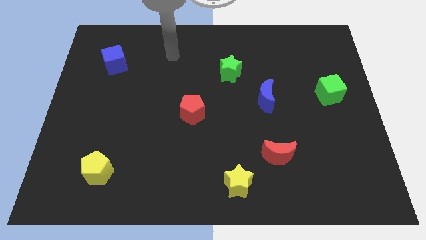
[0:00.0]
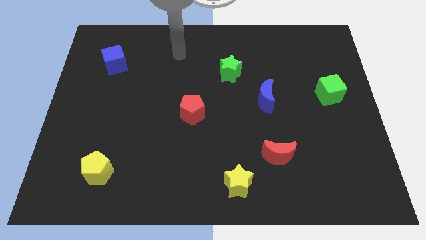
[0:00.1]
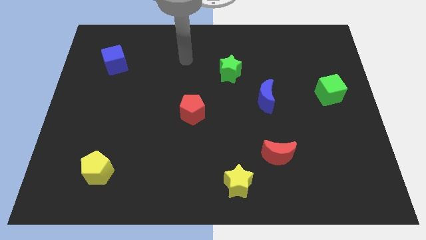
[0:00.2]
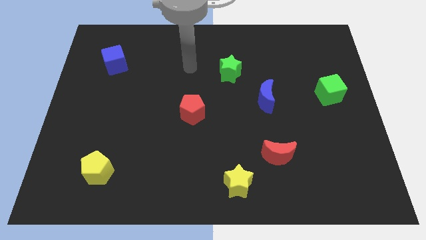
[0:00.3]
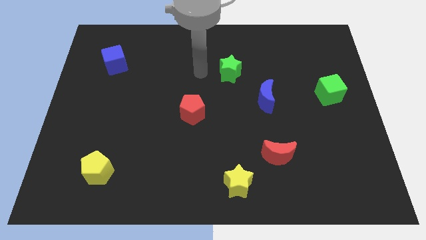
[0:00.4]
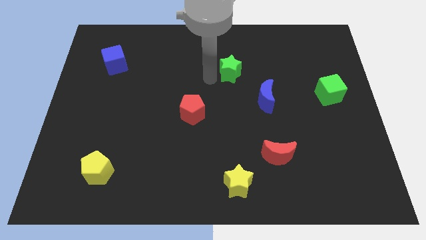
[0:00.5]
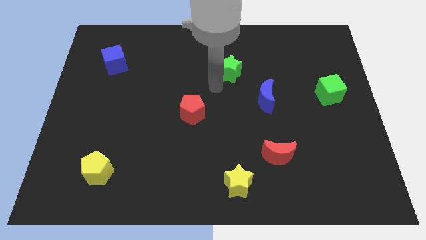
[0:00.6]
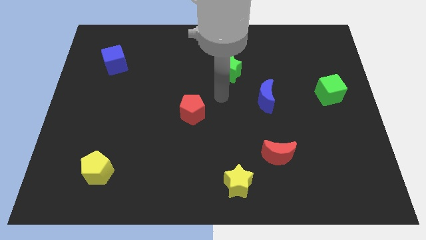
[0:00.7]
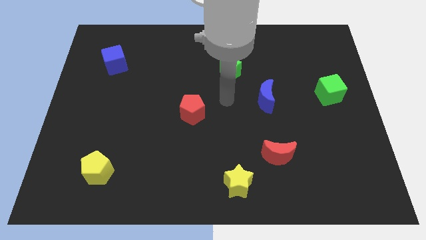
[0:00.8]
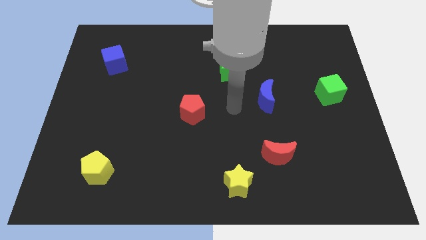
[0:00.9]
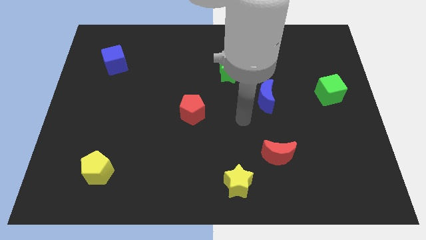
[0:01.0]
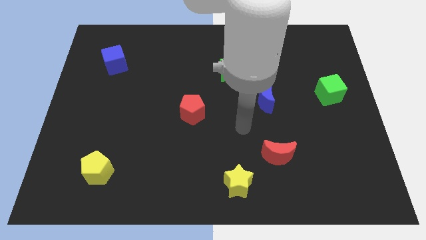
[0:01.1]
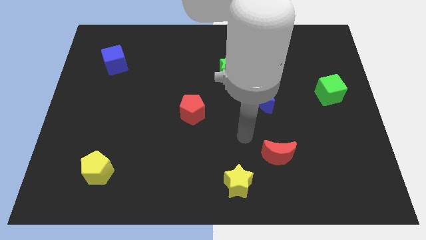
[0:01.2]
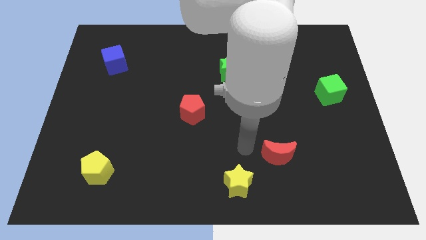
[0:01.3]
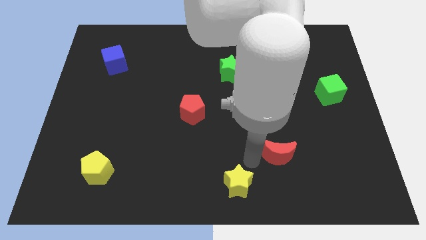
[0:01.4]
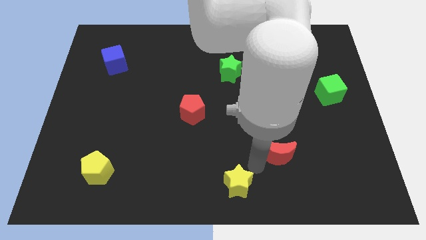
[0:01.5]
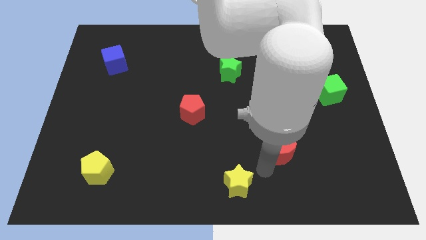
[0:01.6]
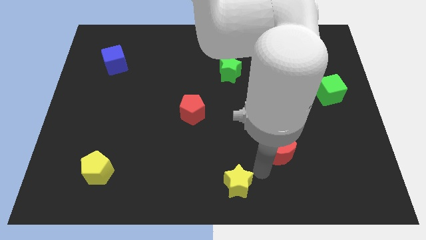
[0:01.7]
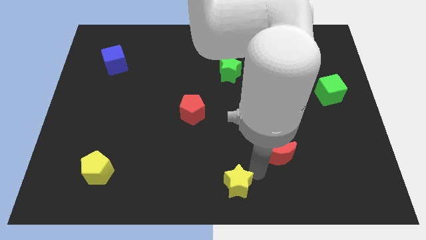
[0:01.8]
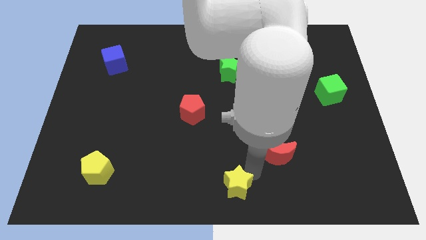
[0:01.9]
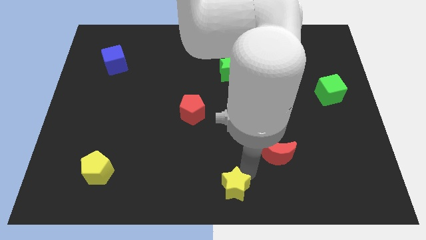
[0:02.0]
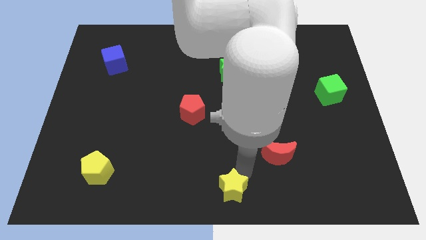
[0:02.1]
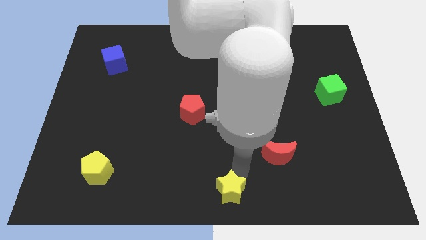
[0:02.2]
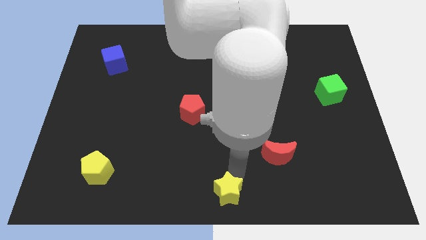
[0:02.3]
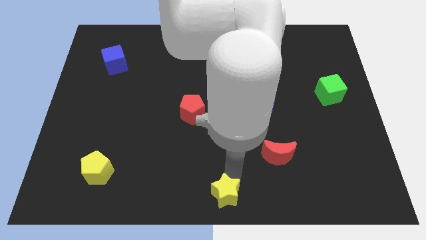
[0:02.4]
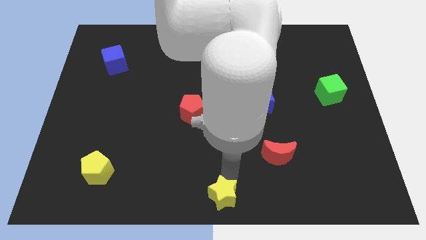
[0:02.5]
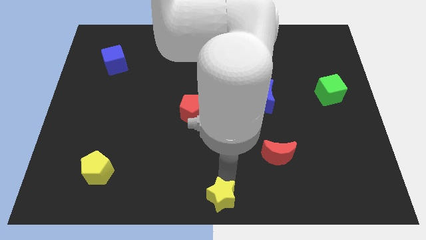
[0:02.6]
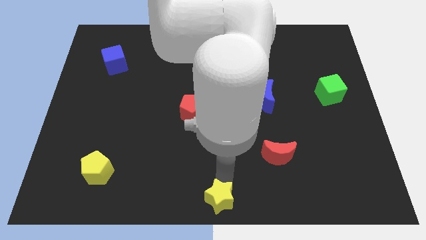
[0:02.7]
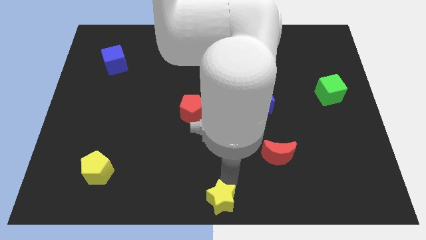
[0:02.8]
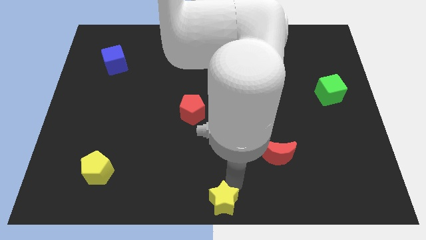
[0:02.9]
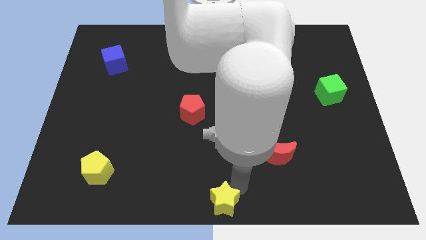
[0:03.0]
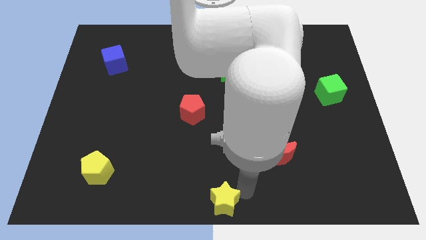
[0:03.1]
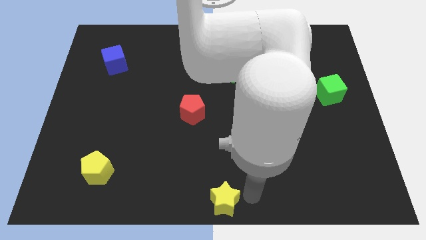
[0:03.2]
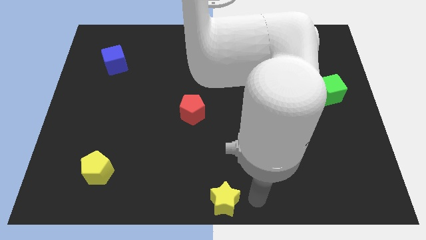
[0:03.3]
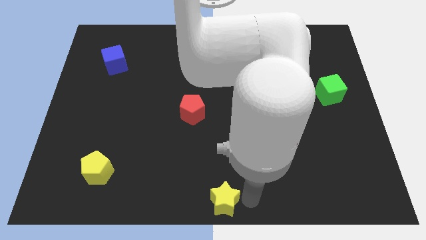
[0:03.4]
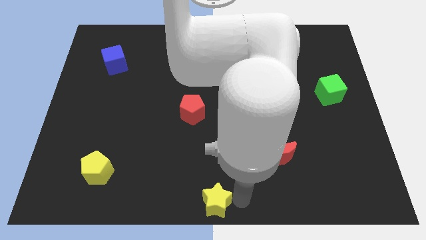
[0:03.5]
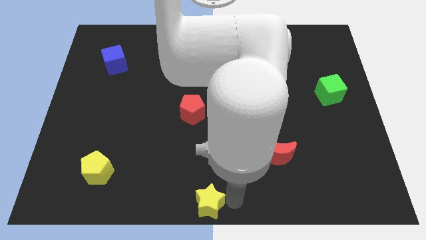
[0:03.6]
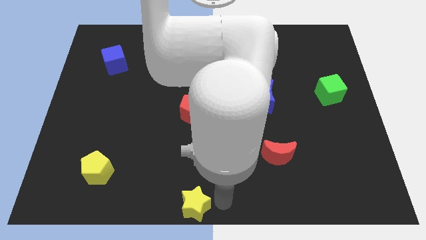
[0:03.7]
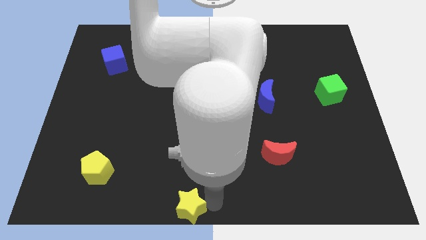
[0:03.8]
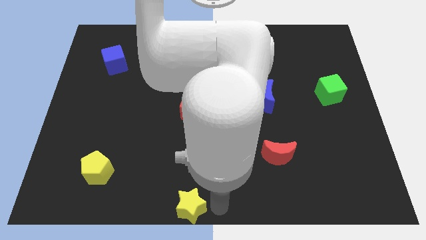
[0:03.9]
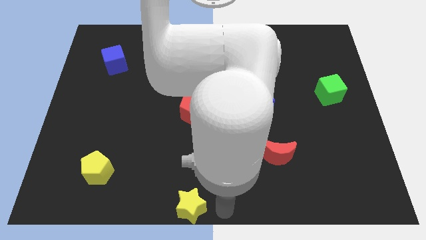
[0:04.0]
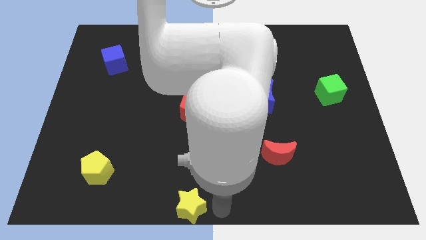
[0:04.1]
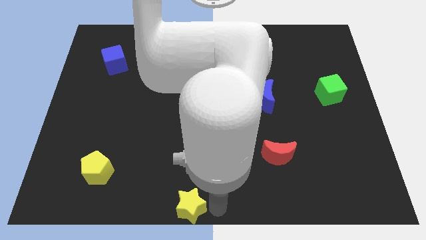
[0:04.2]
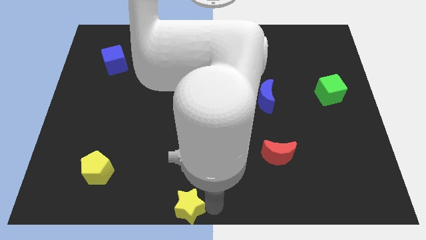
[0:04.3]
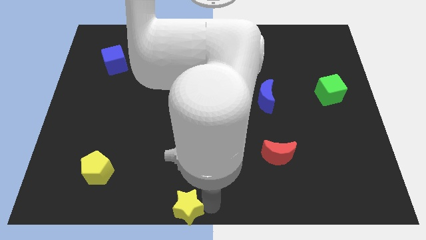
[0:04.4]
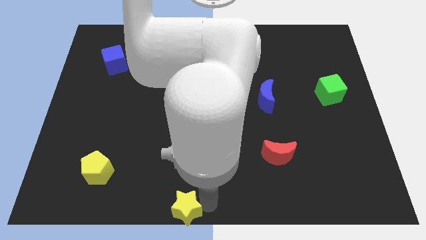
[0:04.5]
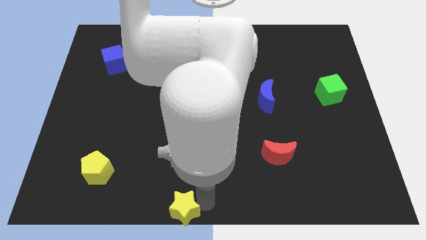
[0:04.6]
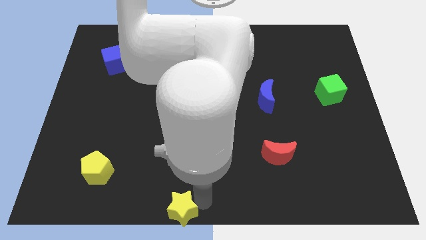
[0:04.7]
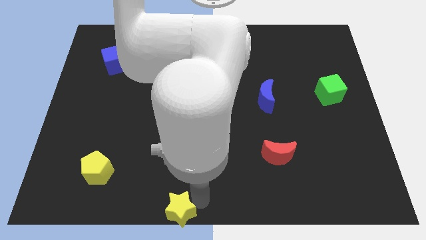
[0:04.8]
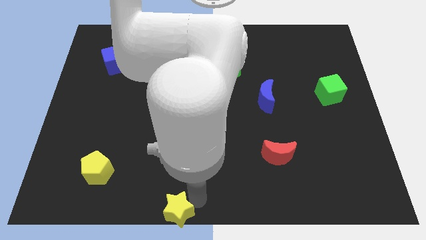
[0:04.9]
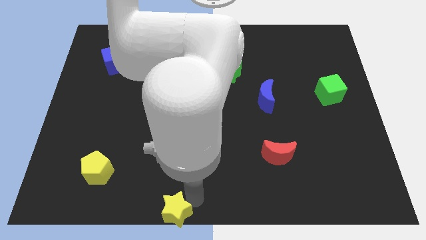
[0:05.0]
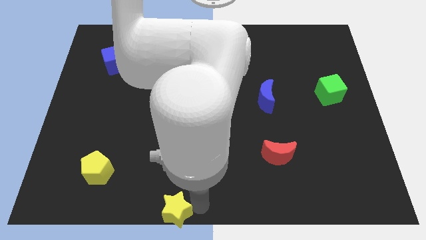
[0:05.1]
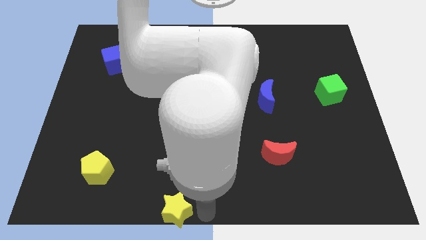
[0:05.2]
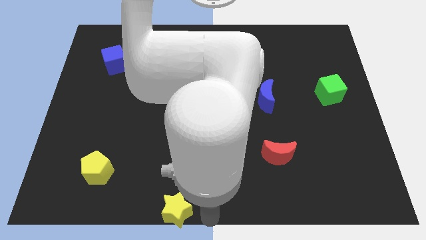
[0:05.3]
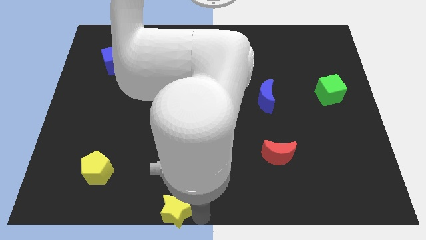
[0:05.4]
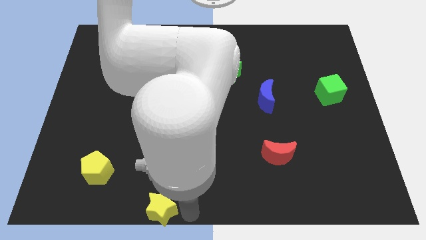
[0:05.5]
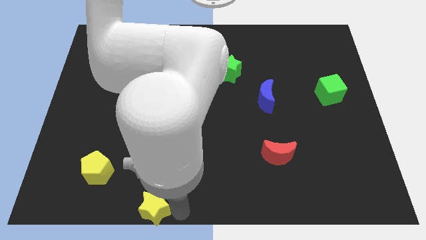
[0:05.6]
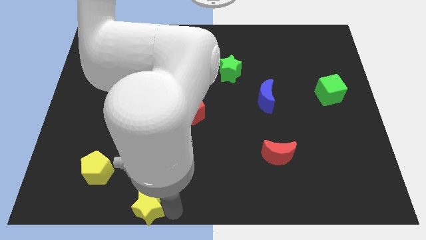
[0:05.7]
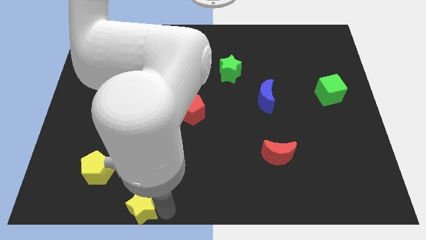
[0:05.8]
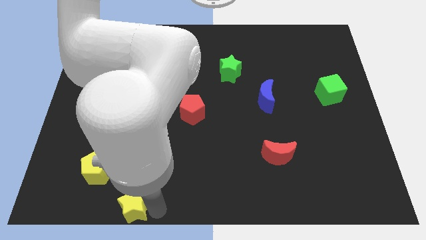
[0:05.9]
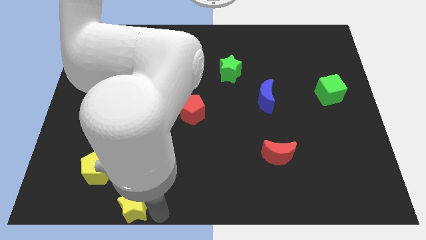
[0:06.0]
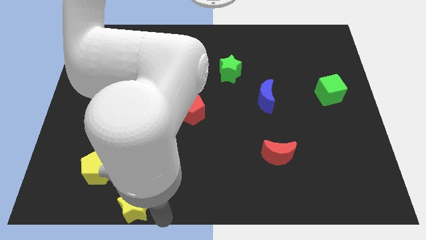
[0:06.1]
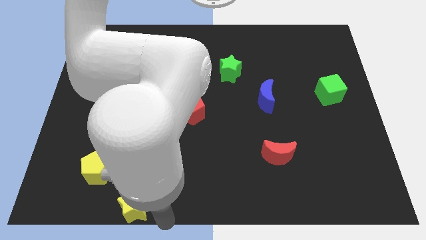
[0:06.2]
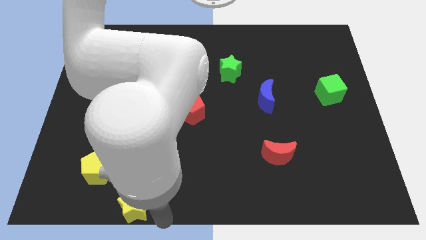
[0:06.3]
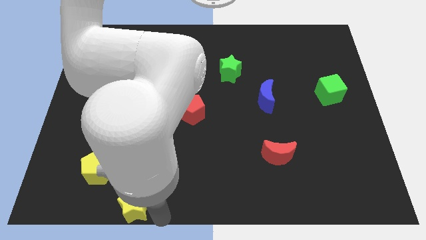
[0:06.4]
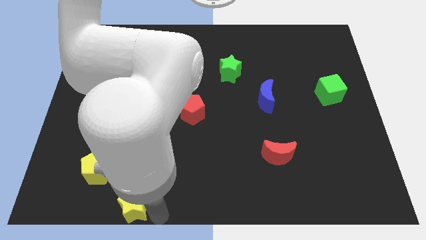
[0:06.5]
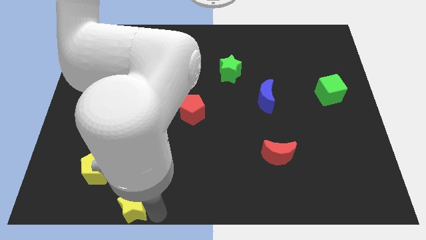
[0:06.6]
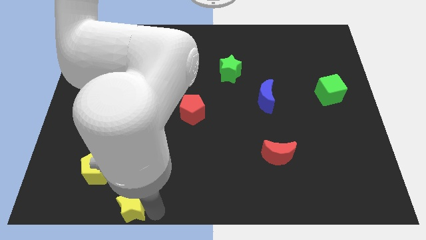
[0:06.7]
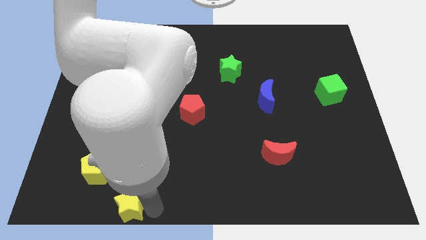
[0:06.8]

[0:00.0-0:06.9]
slide the yellow star left

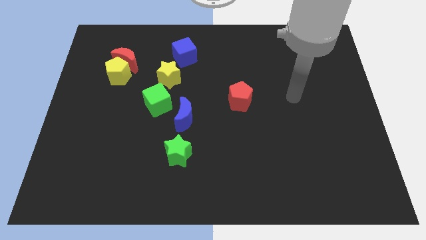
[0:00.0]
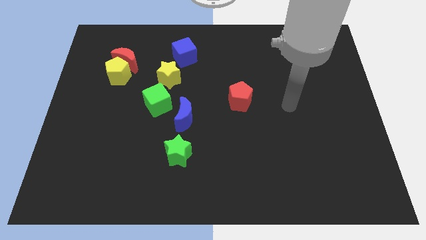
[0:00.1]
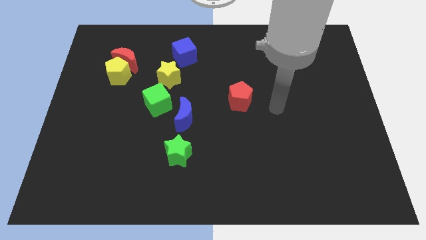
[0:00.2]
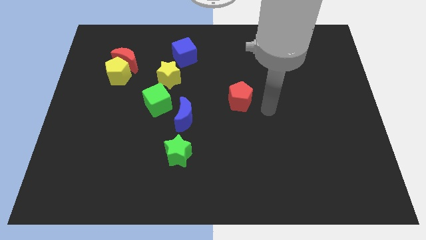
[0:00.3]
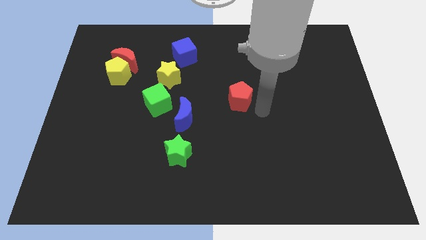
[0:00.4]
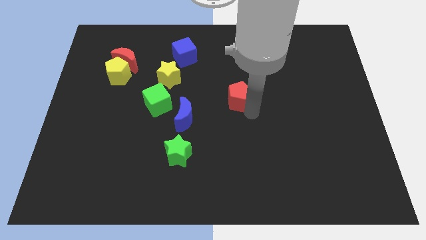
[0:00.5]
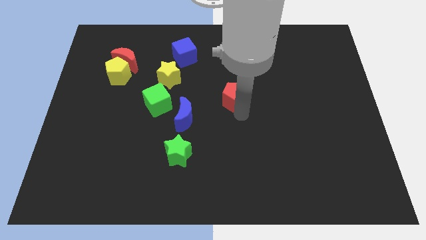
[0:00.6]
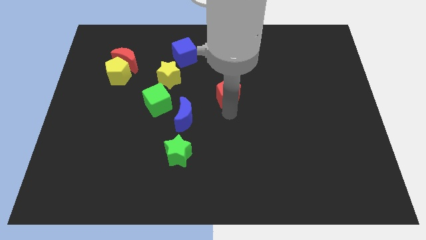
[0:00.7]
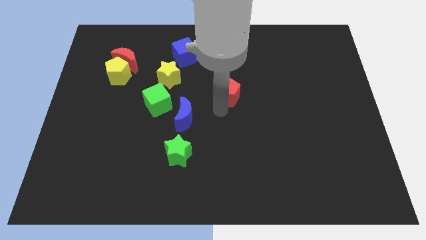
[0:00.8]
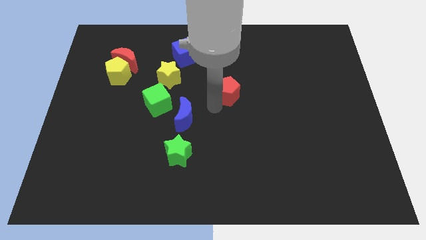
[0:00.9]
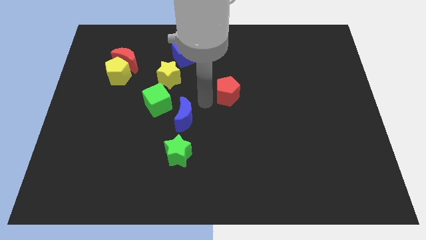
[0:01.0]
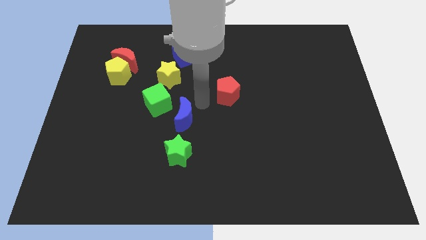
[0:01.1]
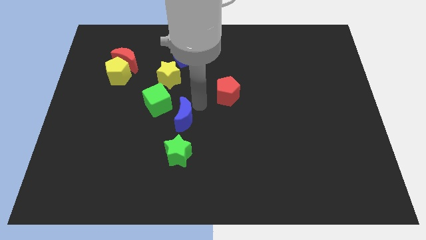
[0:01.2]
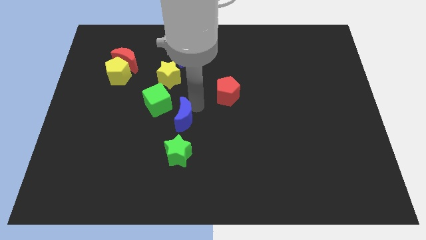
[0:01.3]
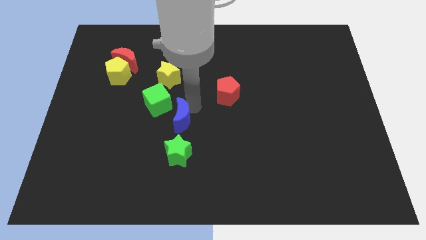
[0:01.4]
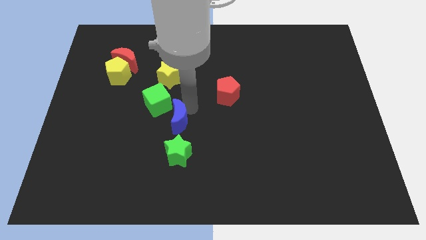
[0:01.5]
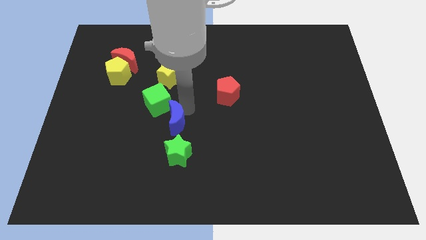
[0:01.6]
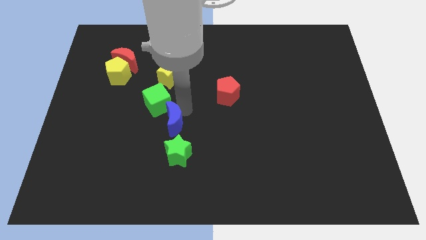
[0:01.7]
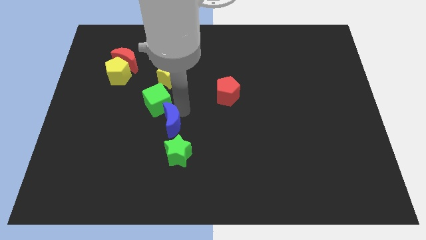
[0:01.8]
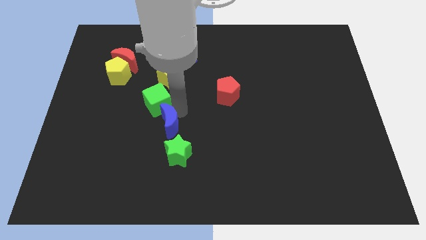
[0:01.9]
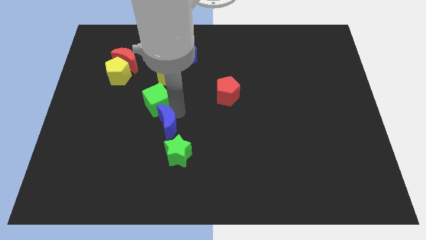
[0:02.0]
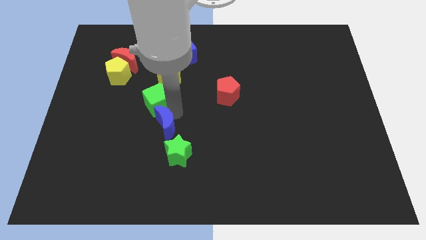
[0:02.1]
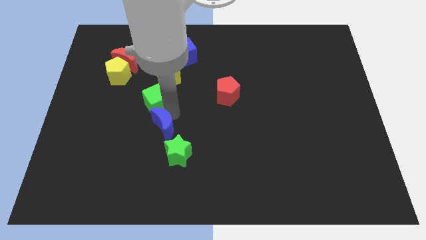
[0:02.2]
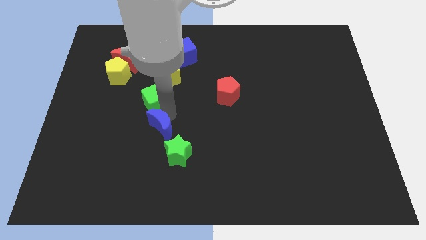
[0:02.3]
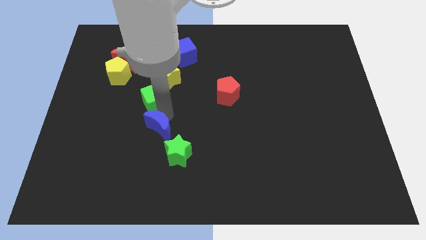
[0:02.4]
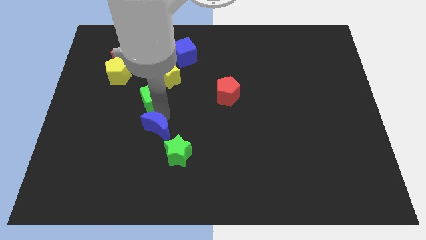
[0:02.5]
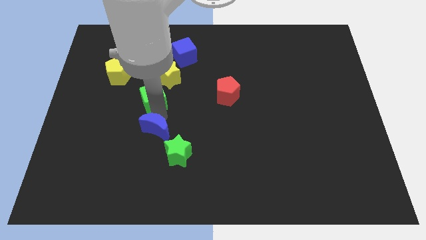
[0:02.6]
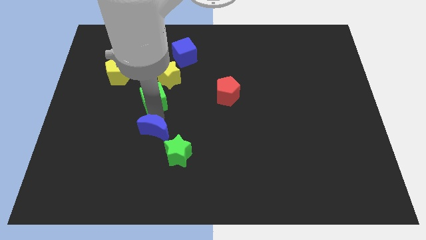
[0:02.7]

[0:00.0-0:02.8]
push the blue moon down and to the left somewhat
